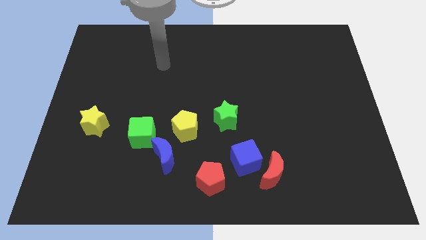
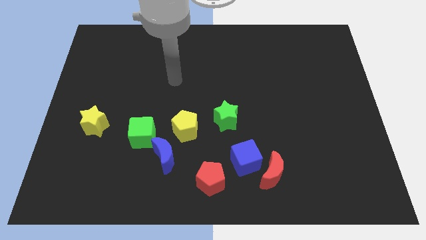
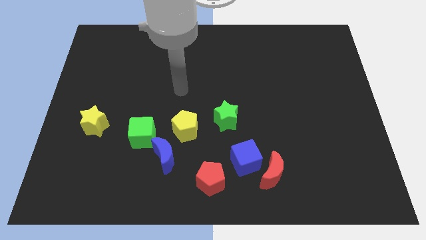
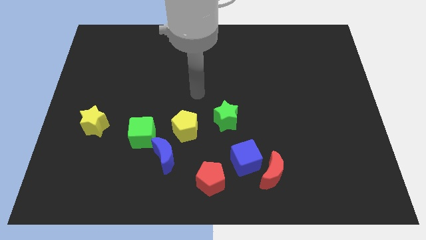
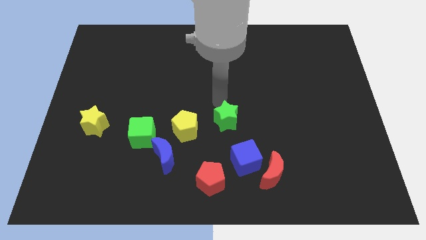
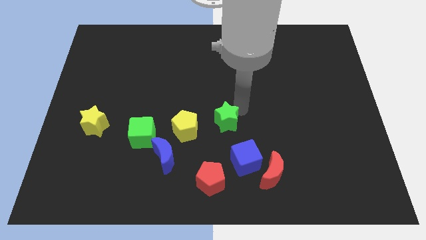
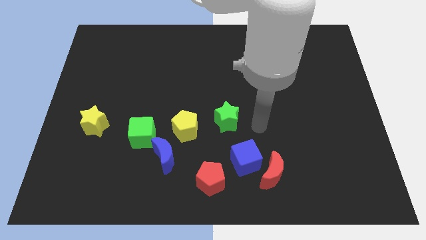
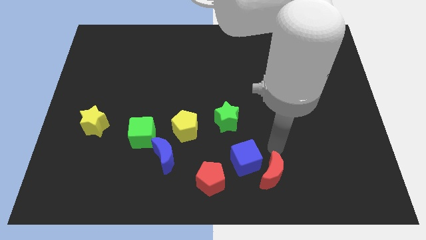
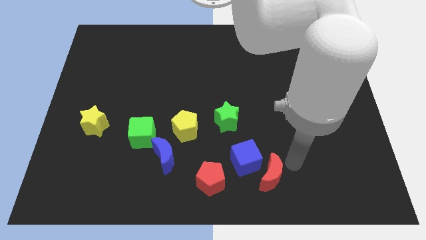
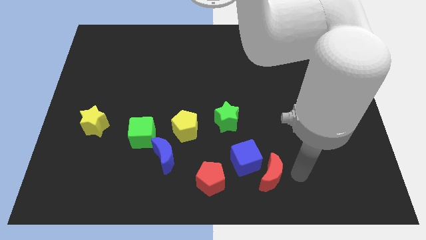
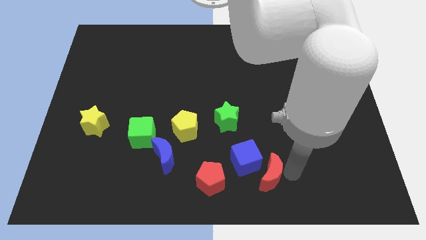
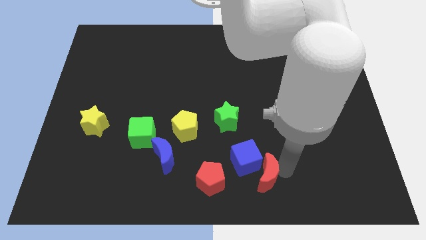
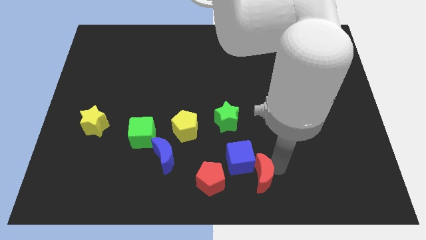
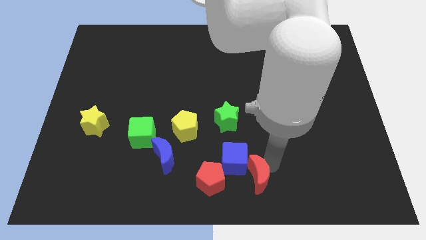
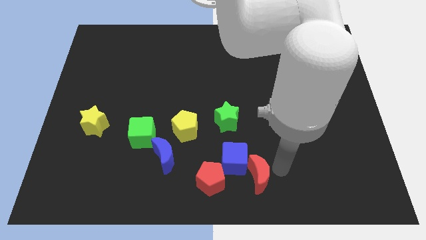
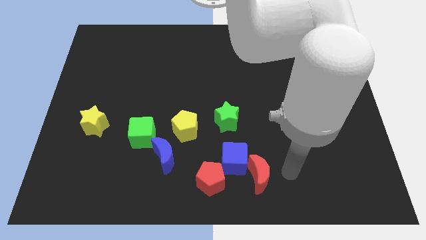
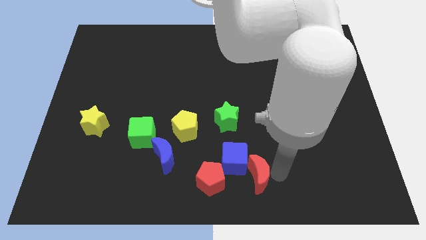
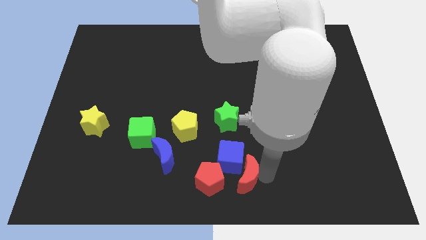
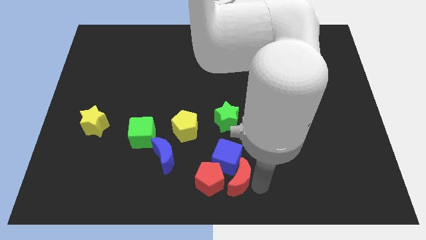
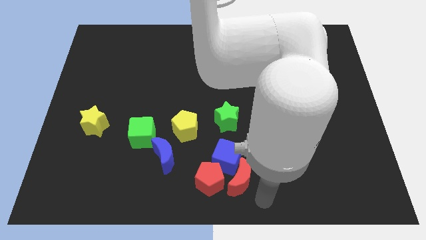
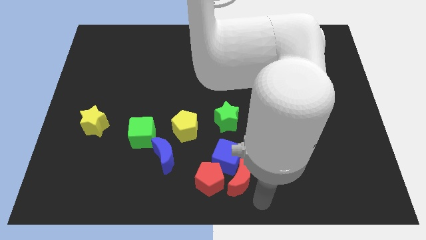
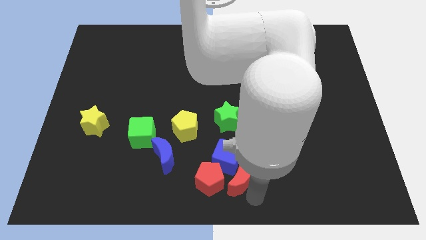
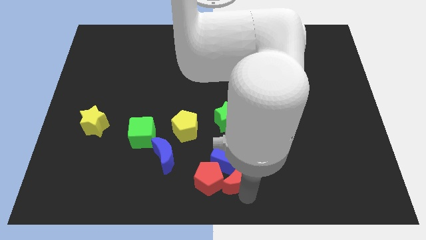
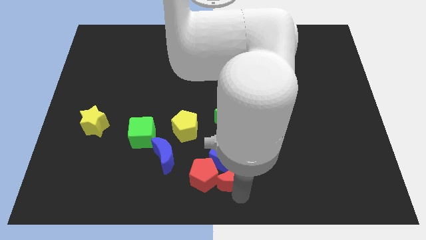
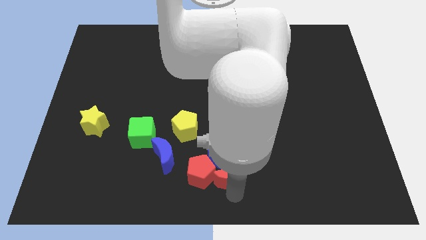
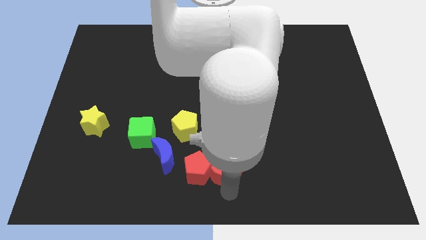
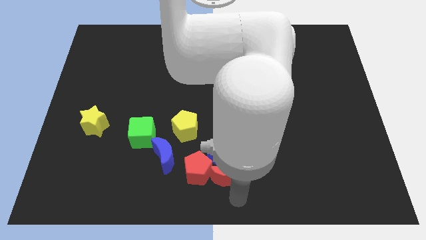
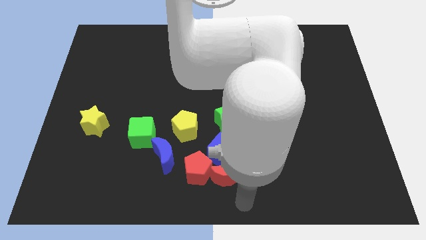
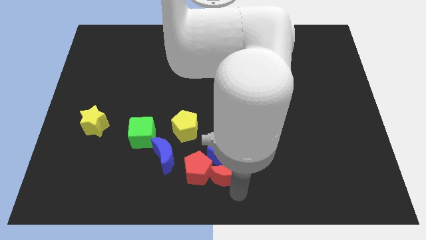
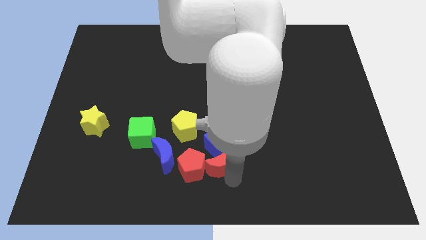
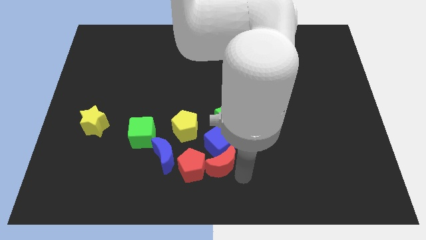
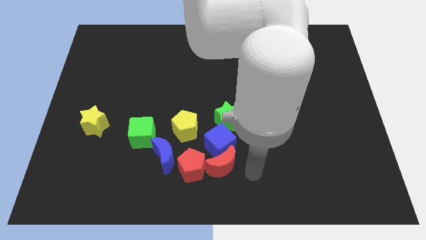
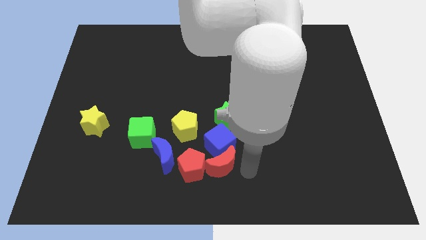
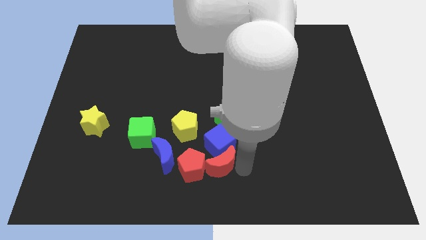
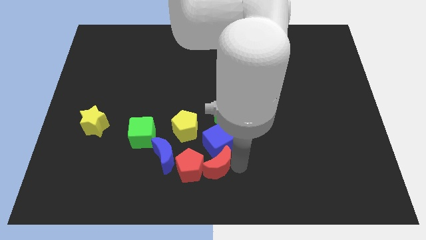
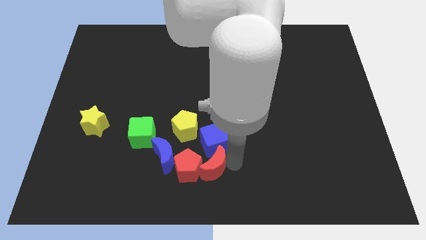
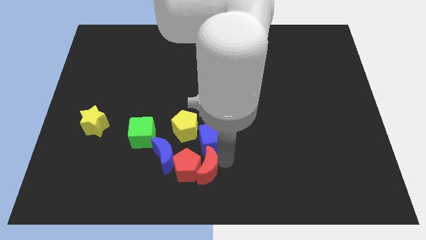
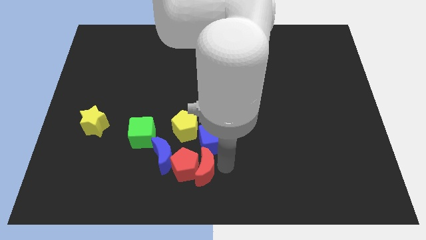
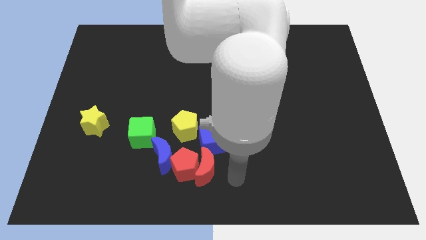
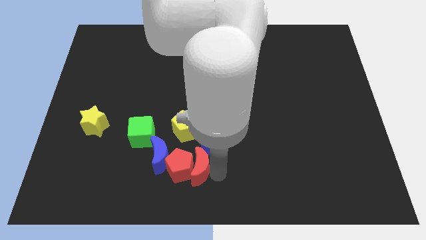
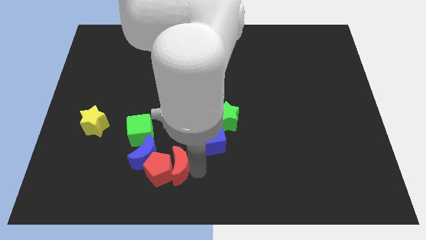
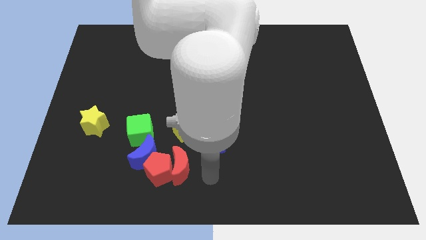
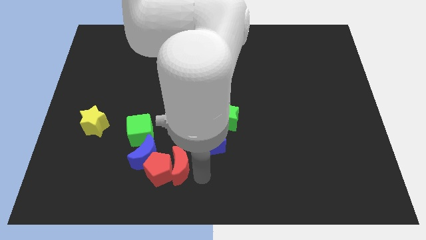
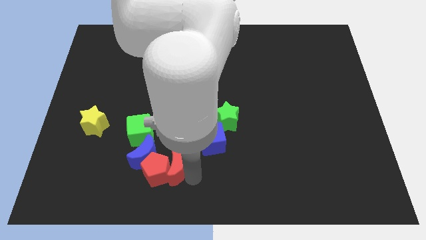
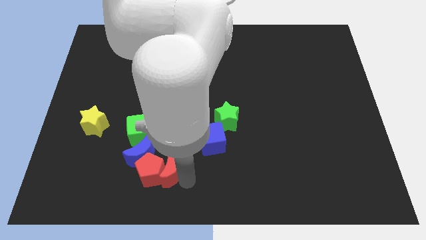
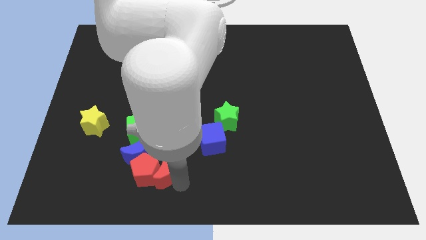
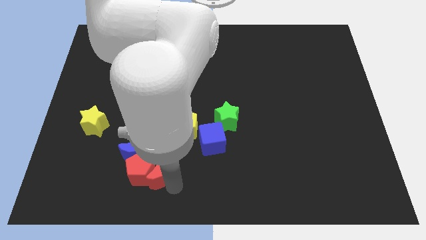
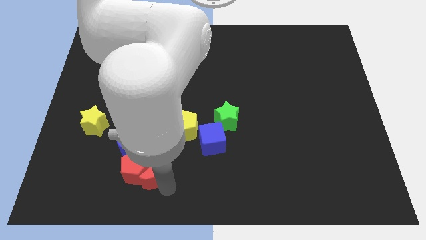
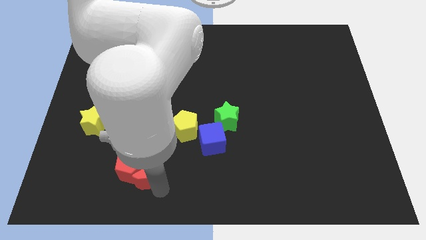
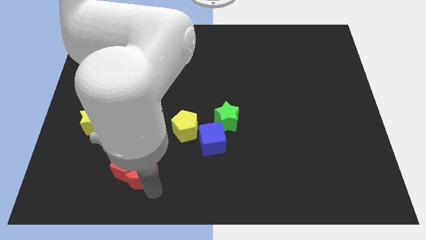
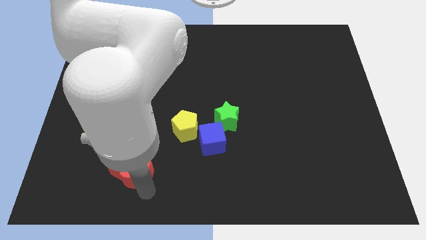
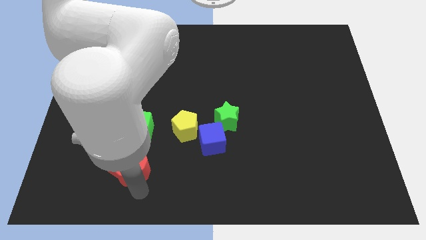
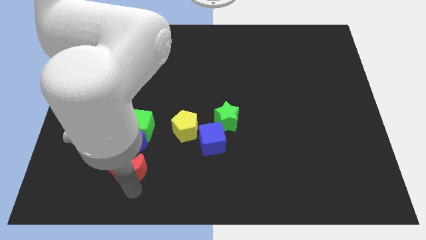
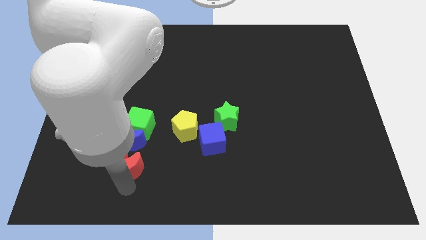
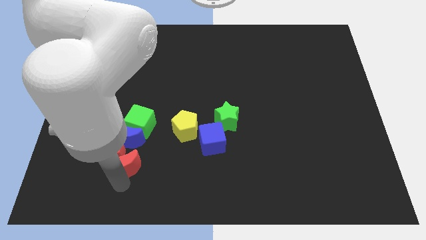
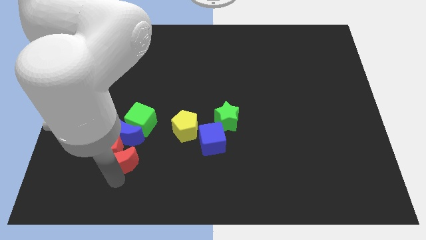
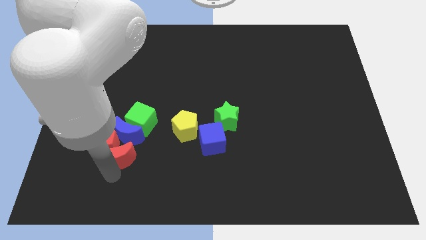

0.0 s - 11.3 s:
slide the red moon towards the blue moon

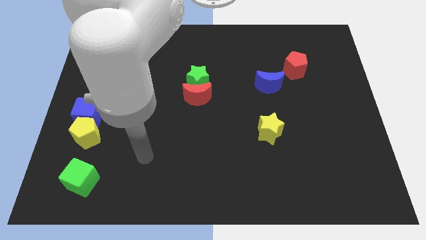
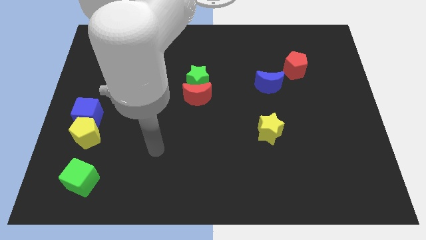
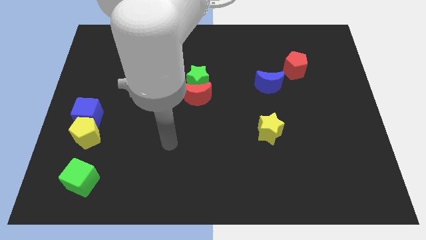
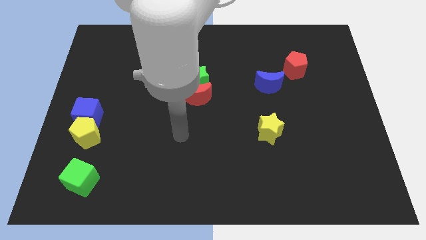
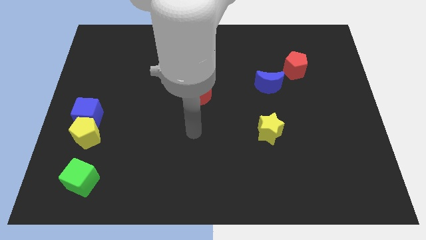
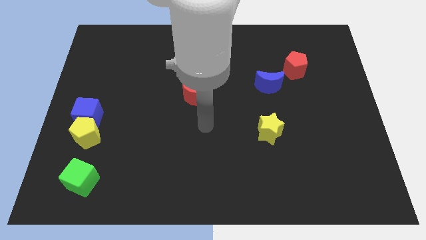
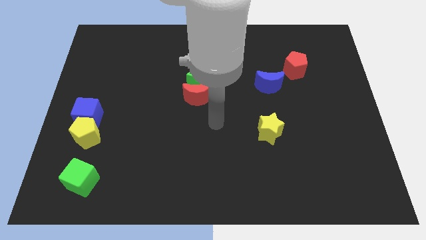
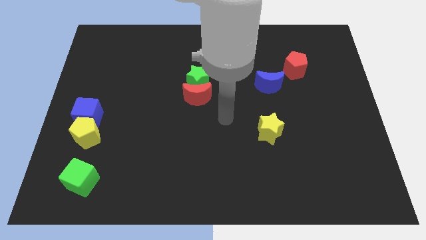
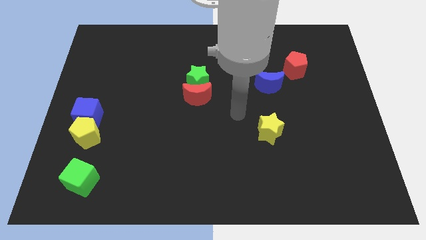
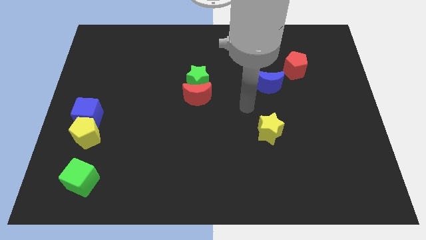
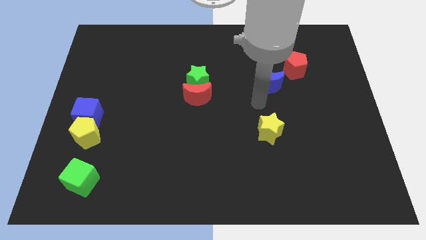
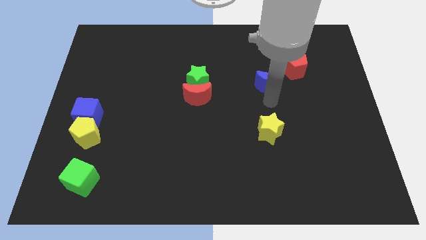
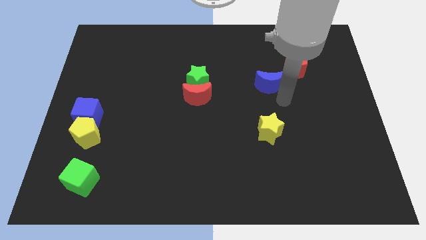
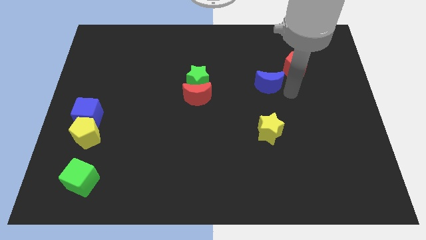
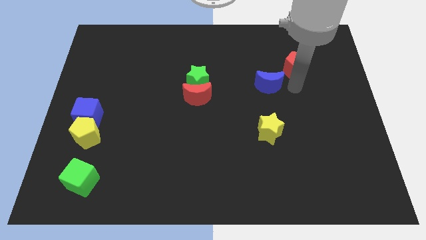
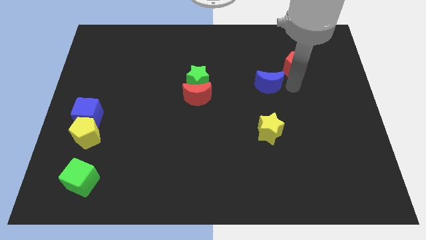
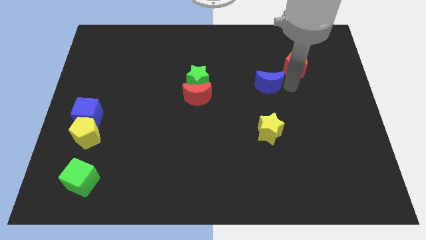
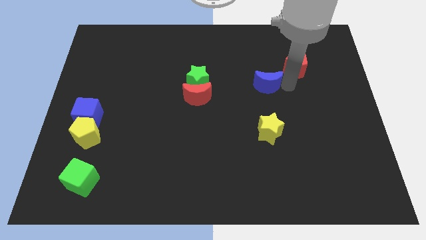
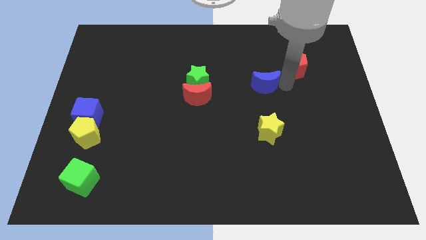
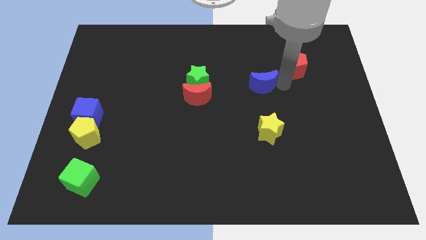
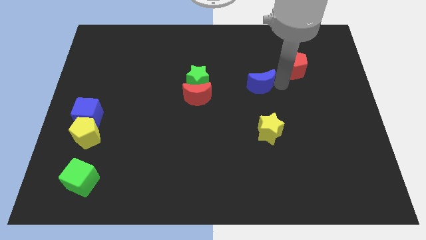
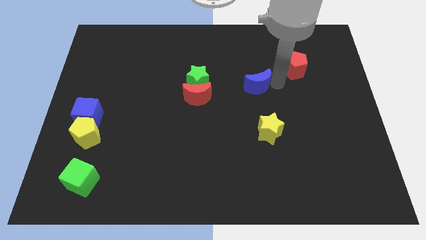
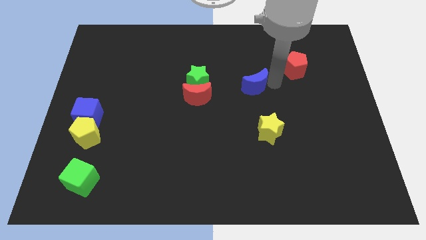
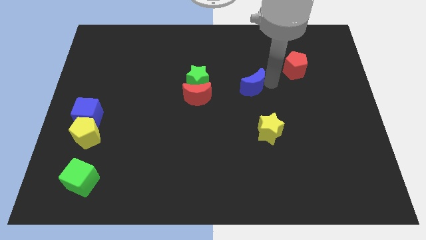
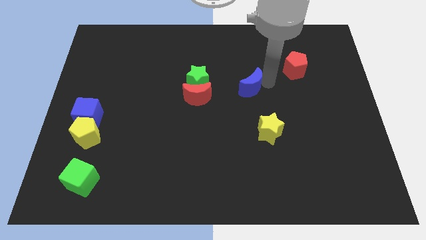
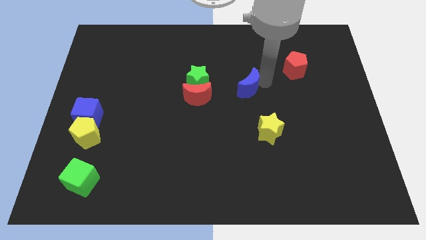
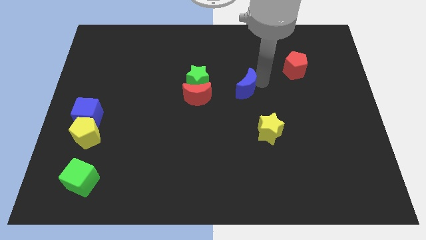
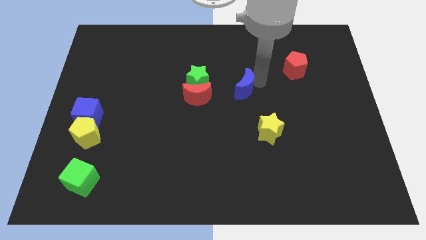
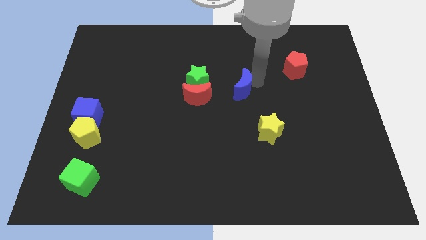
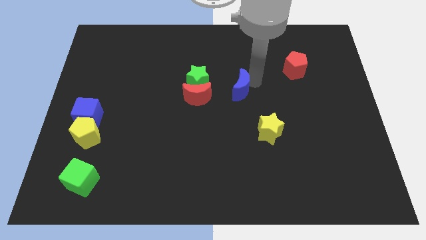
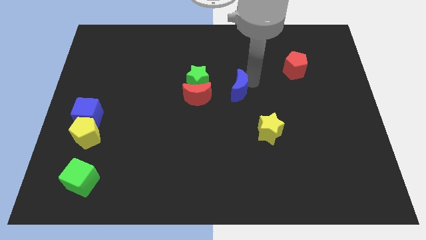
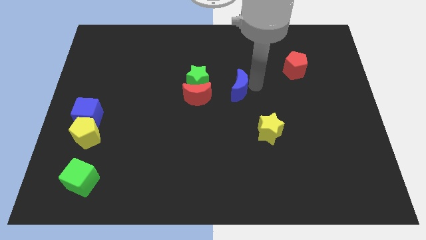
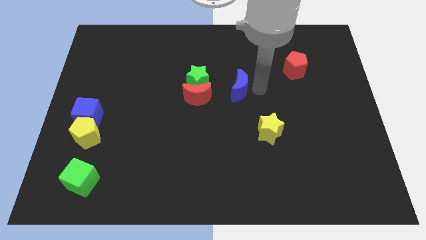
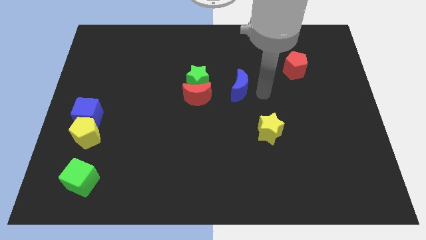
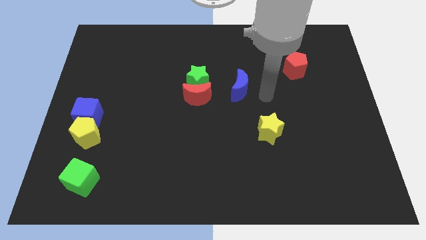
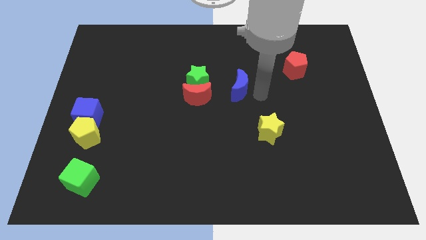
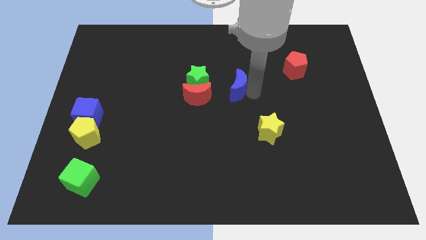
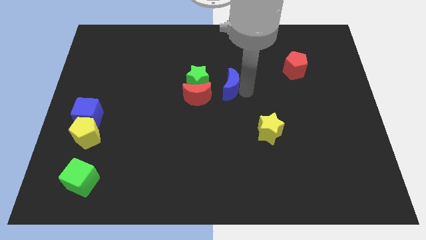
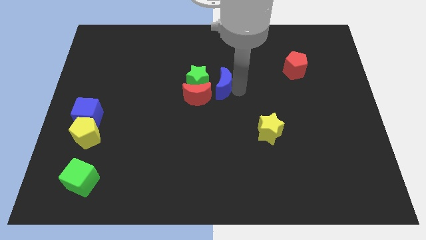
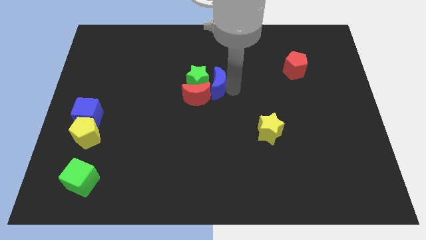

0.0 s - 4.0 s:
move the blue moon towards the green star
